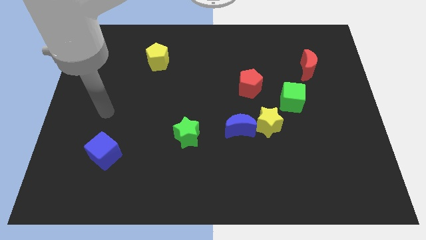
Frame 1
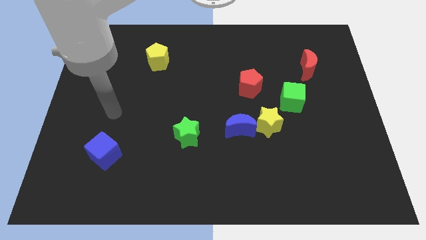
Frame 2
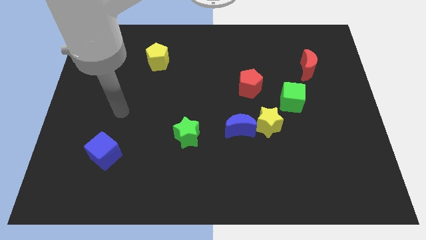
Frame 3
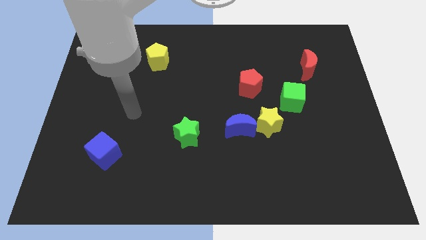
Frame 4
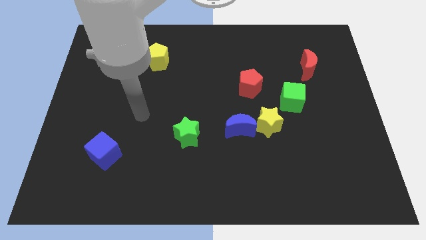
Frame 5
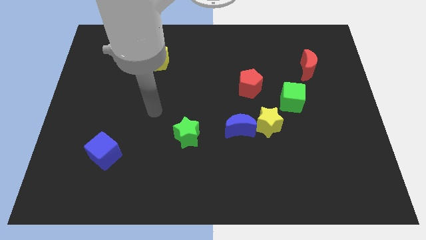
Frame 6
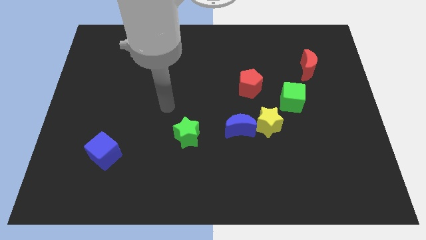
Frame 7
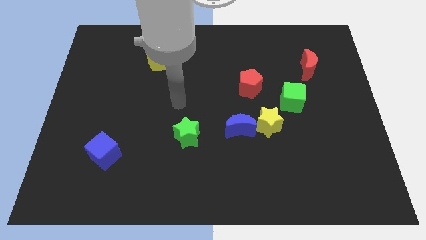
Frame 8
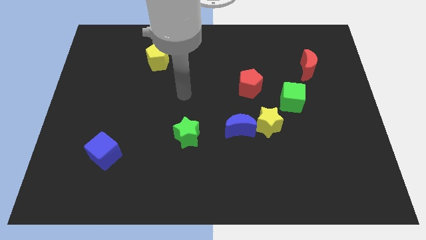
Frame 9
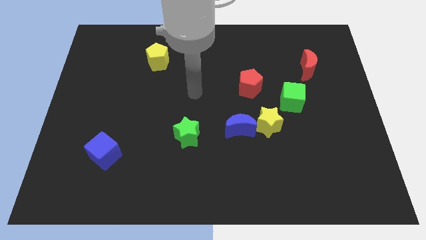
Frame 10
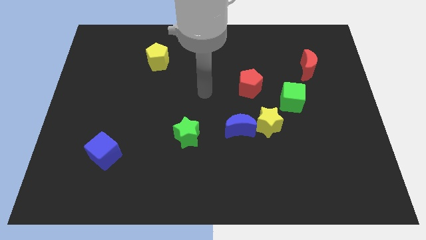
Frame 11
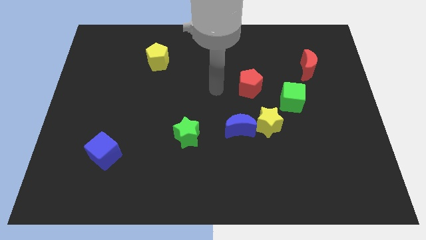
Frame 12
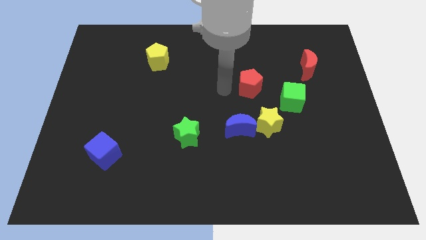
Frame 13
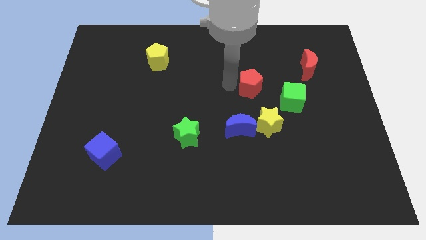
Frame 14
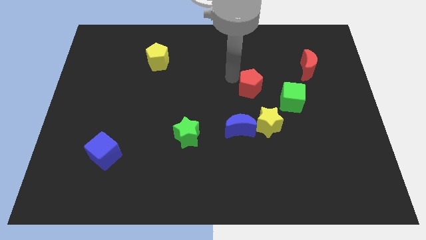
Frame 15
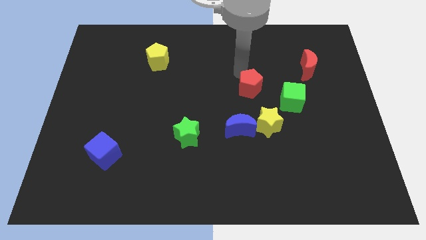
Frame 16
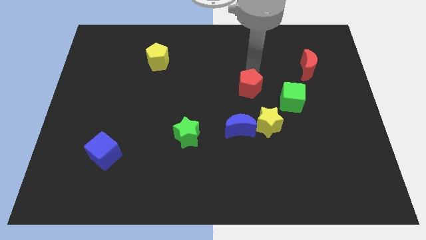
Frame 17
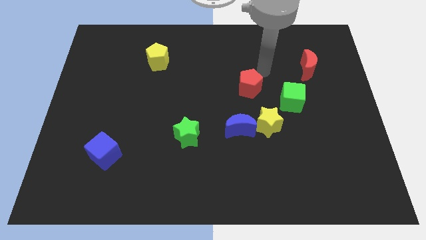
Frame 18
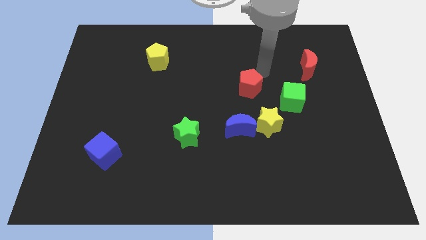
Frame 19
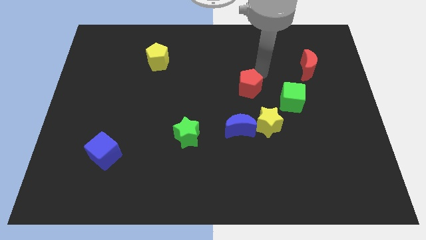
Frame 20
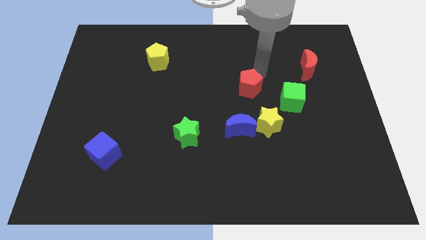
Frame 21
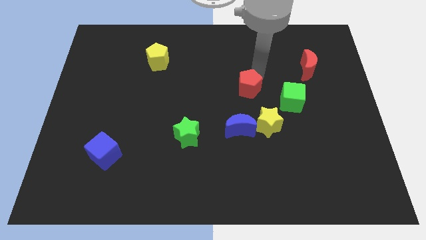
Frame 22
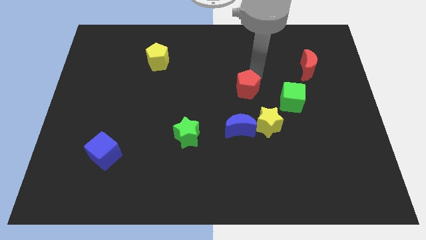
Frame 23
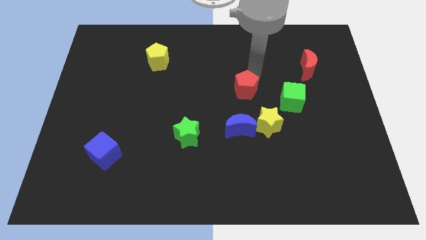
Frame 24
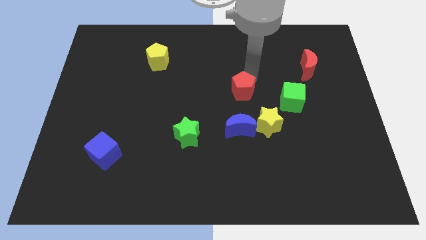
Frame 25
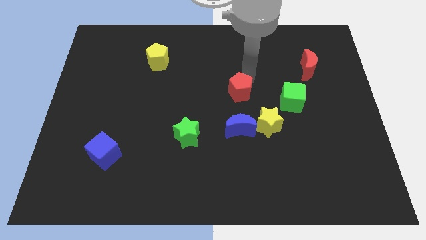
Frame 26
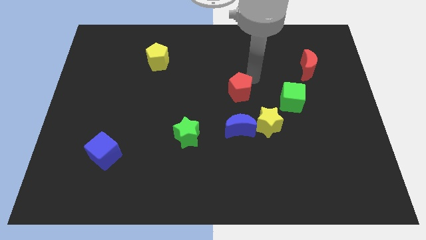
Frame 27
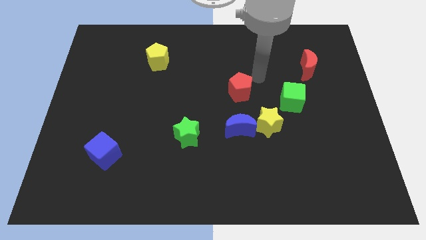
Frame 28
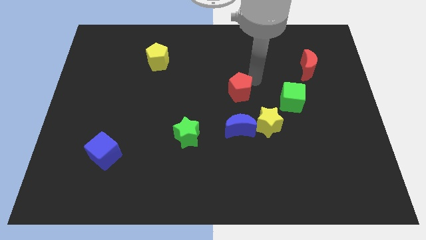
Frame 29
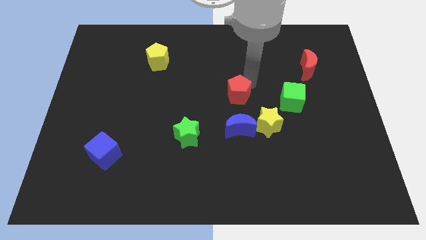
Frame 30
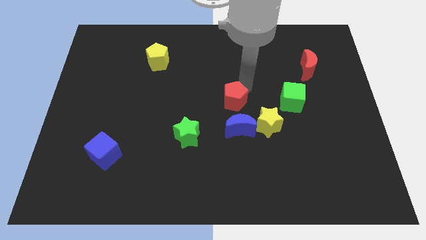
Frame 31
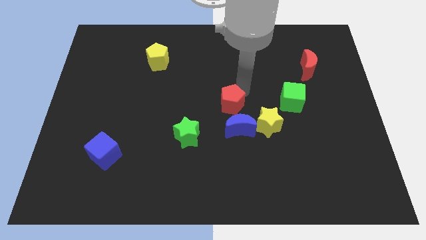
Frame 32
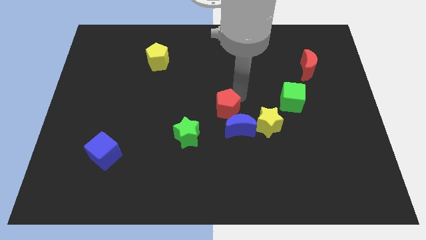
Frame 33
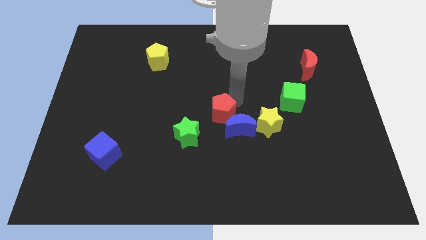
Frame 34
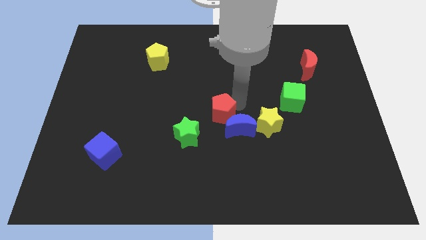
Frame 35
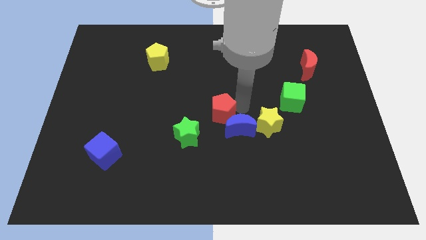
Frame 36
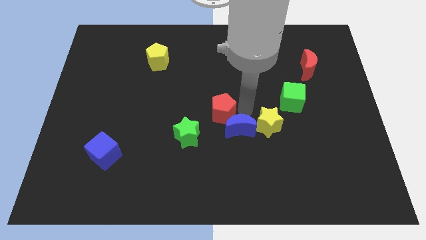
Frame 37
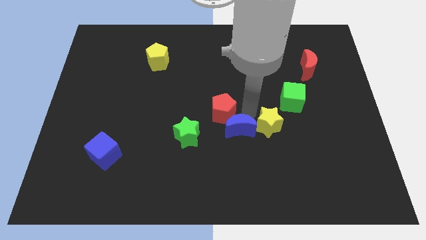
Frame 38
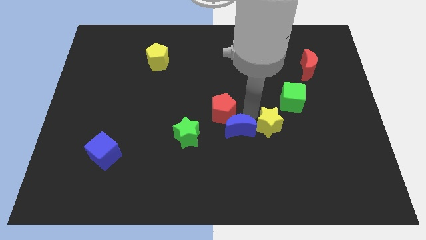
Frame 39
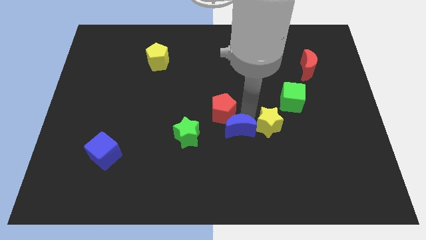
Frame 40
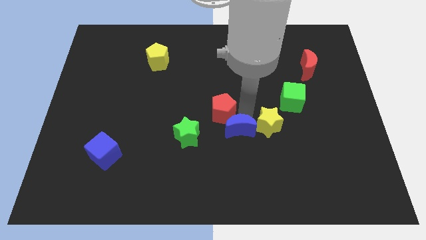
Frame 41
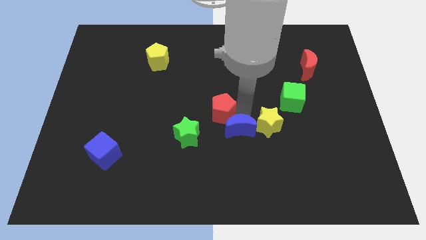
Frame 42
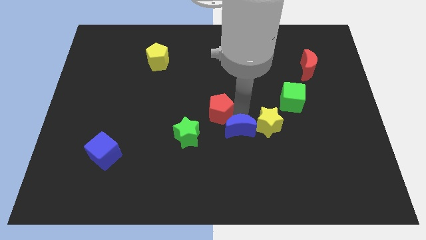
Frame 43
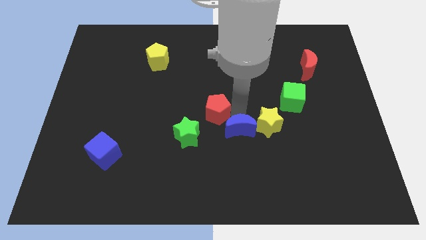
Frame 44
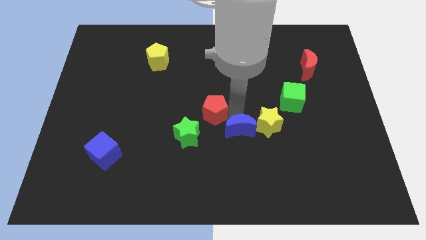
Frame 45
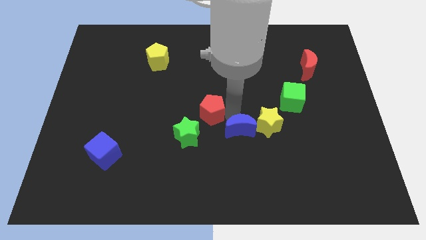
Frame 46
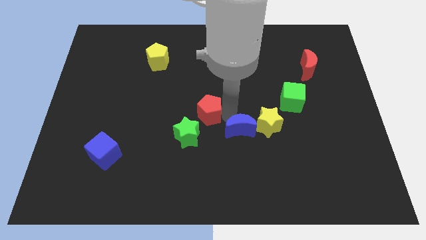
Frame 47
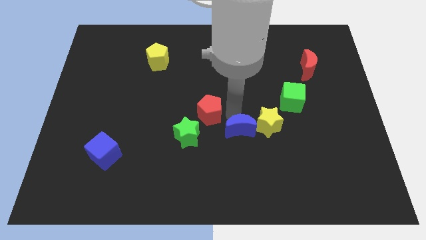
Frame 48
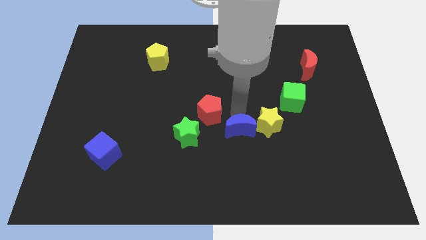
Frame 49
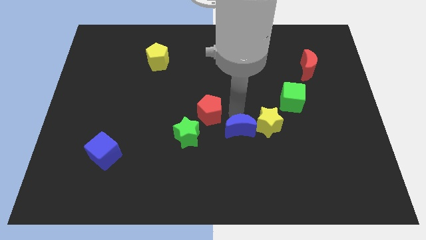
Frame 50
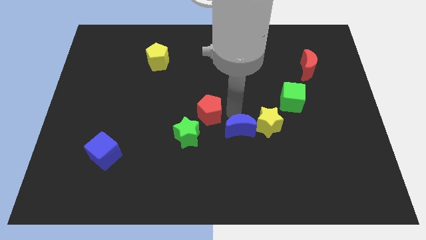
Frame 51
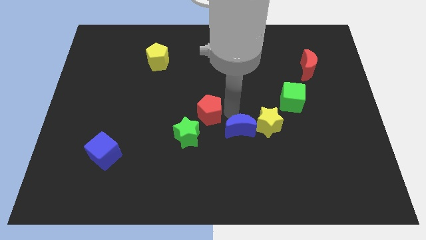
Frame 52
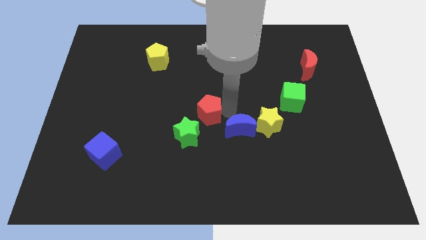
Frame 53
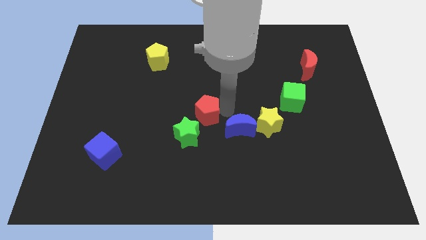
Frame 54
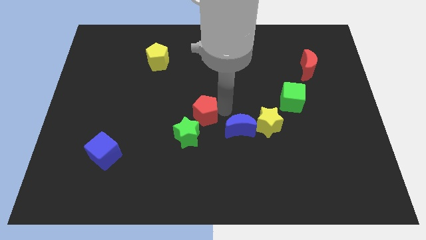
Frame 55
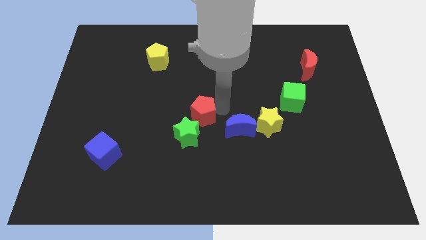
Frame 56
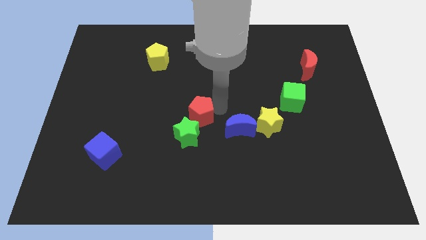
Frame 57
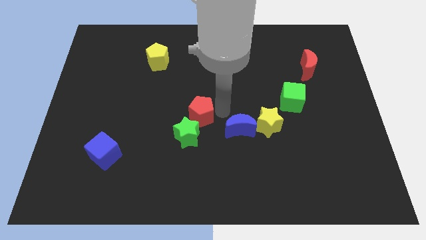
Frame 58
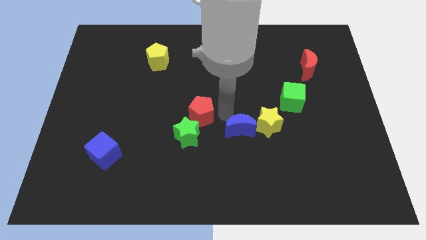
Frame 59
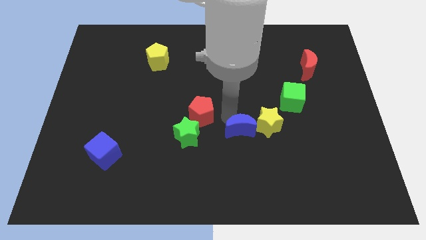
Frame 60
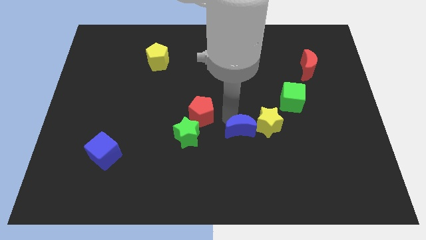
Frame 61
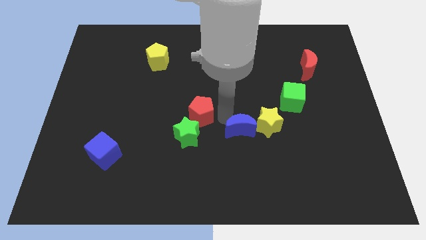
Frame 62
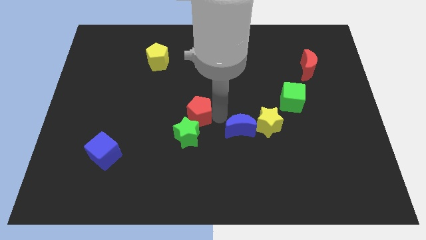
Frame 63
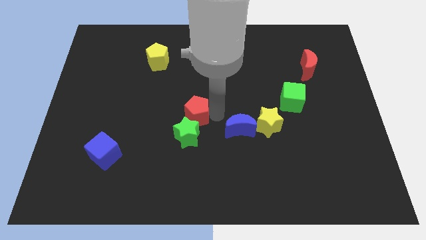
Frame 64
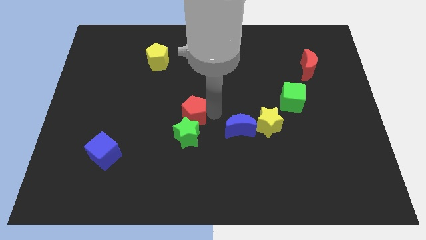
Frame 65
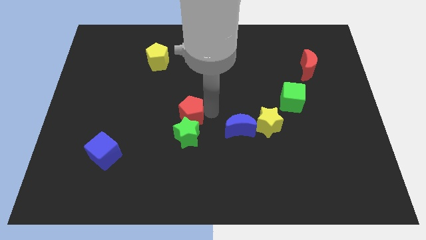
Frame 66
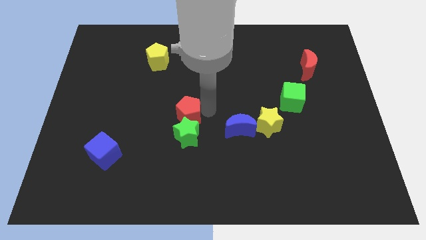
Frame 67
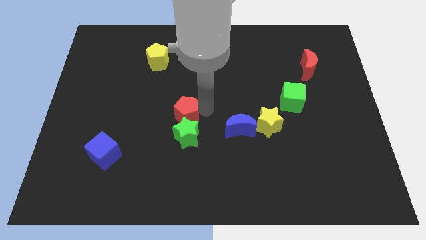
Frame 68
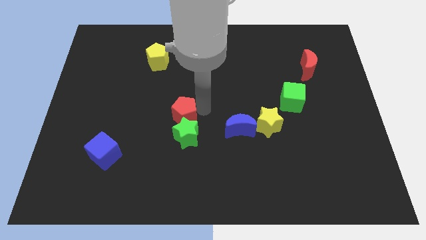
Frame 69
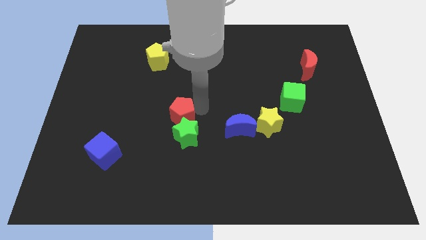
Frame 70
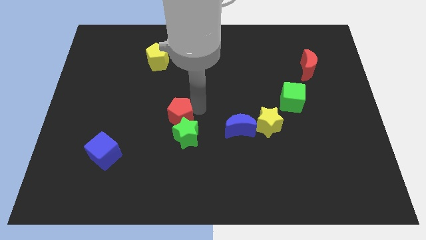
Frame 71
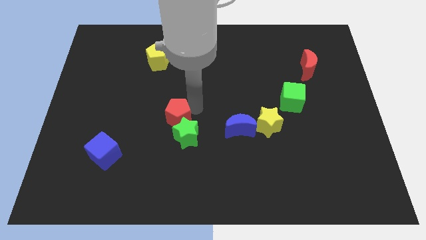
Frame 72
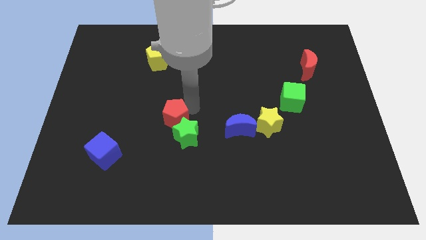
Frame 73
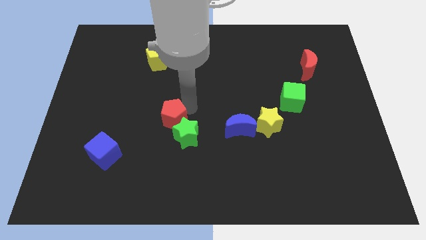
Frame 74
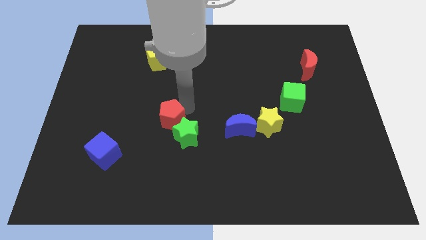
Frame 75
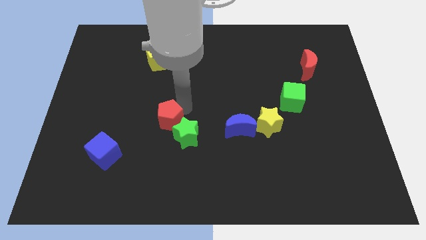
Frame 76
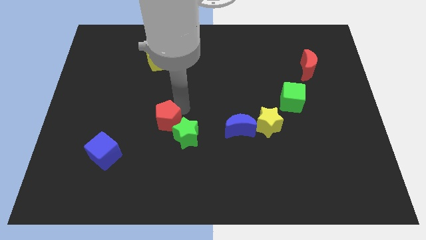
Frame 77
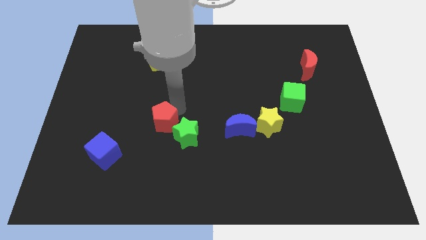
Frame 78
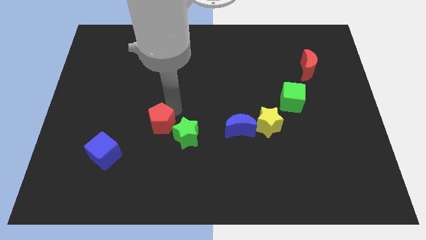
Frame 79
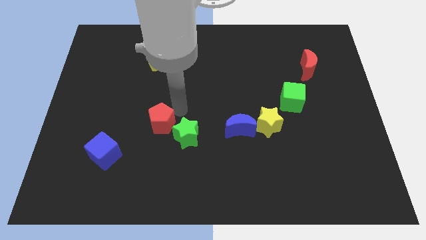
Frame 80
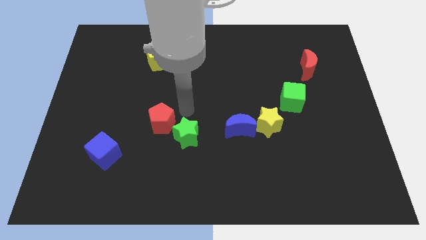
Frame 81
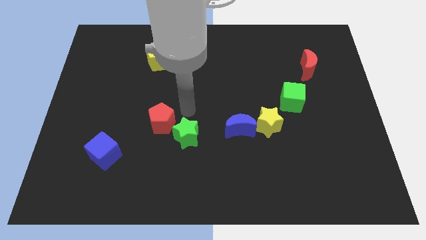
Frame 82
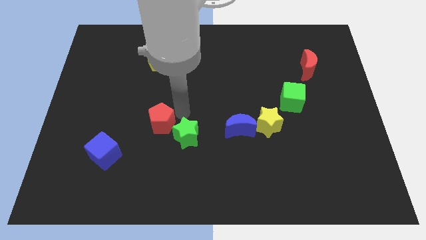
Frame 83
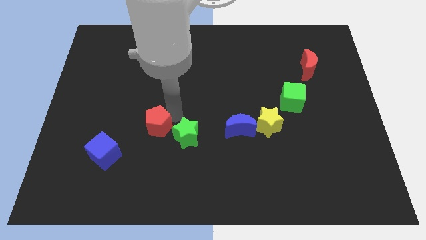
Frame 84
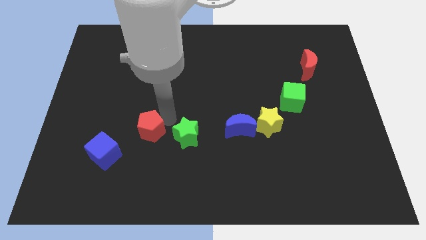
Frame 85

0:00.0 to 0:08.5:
move the red pentagon to the top right side of the blue cube
